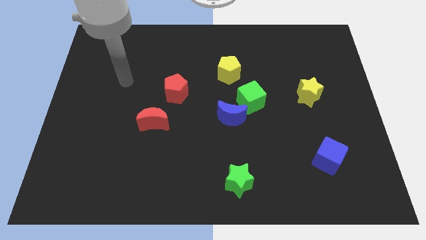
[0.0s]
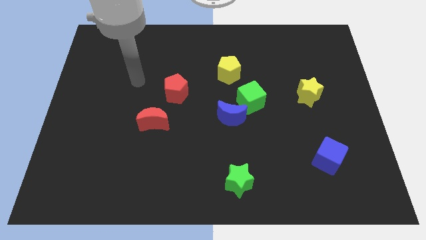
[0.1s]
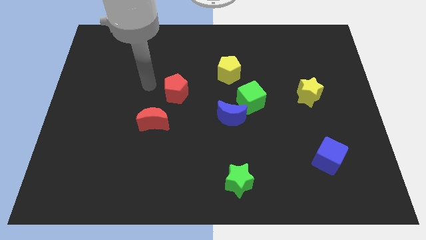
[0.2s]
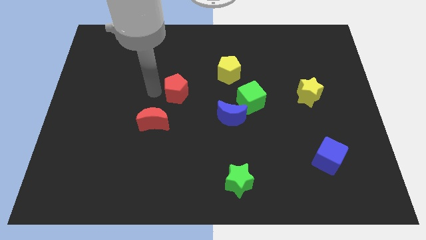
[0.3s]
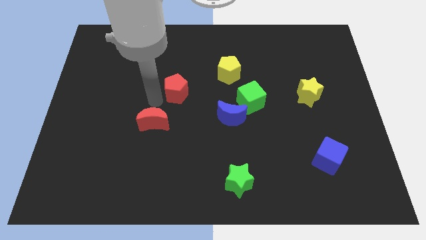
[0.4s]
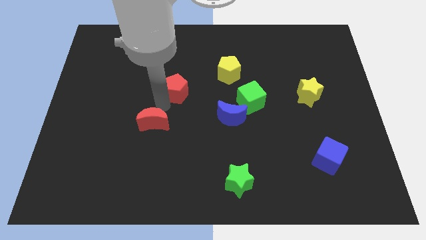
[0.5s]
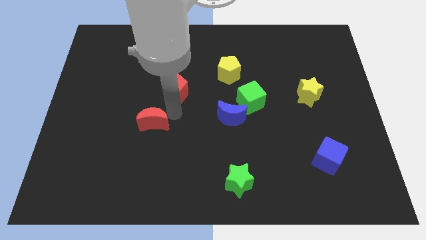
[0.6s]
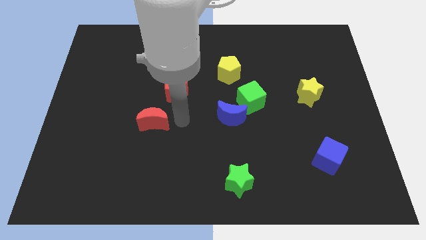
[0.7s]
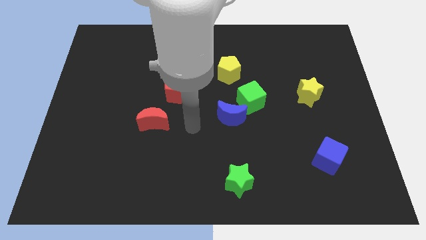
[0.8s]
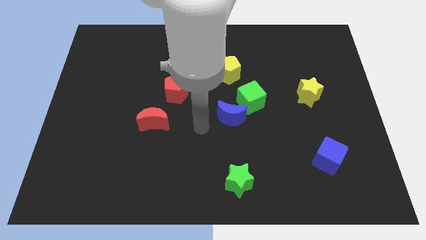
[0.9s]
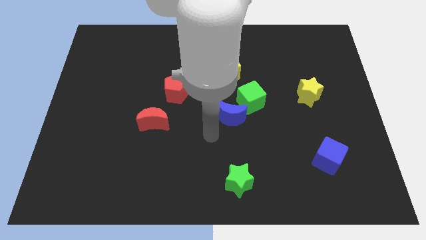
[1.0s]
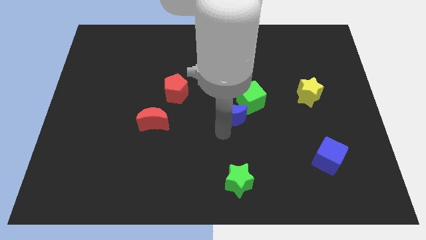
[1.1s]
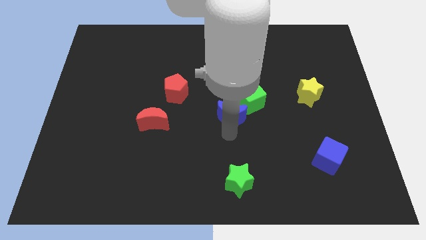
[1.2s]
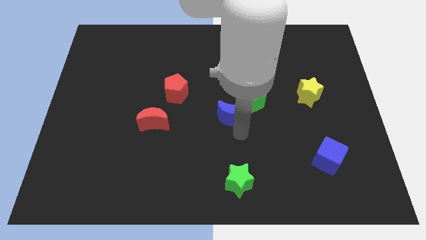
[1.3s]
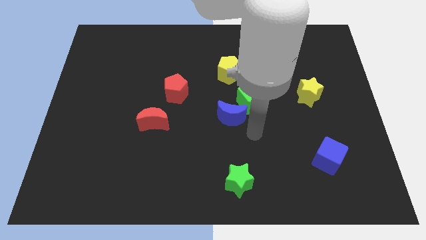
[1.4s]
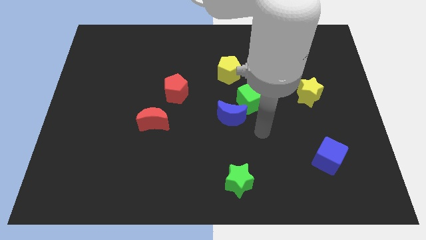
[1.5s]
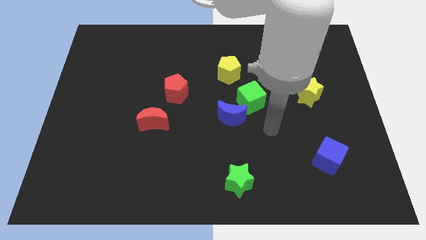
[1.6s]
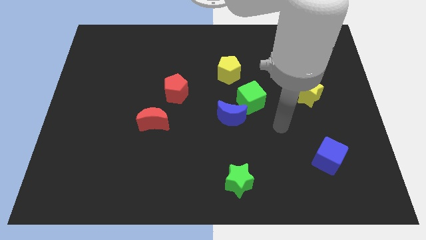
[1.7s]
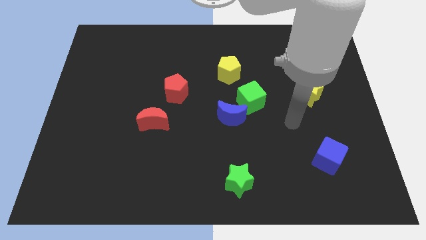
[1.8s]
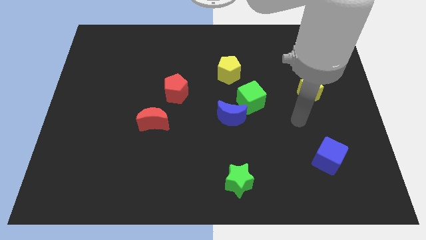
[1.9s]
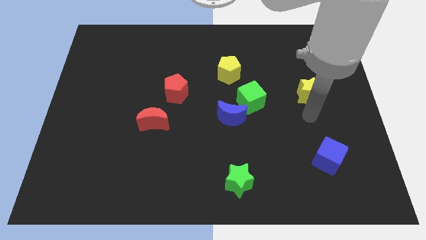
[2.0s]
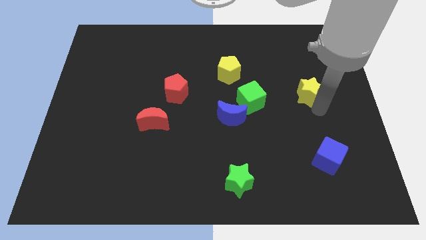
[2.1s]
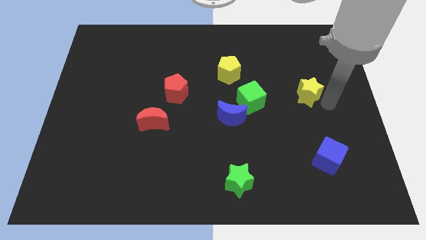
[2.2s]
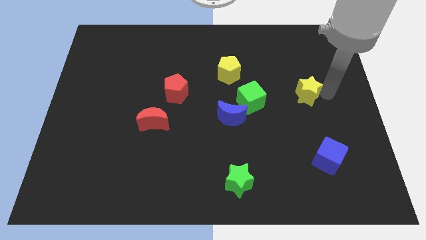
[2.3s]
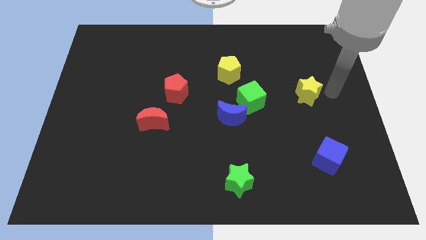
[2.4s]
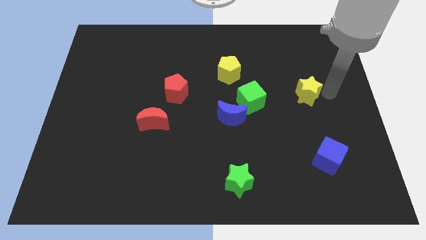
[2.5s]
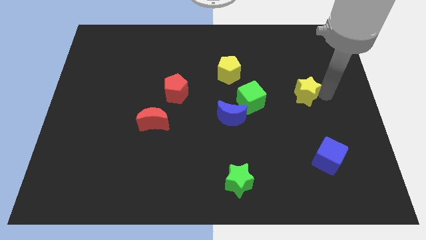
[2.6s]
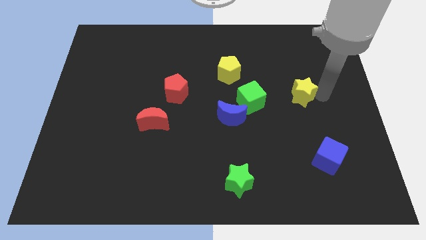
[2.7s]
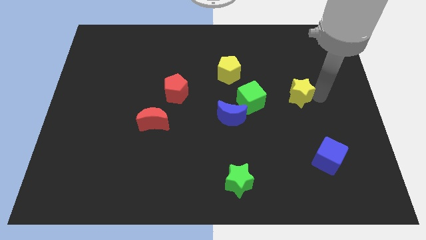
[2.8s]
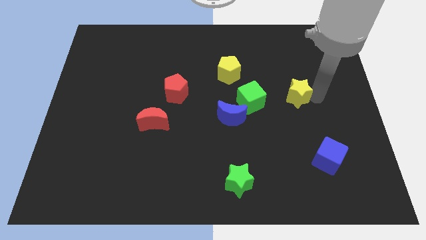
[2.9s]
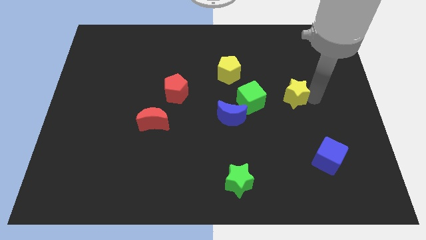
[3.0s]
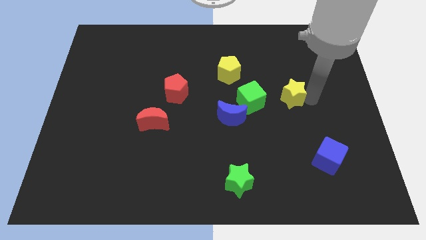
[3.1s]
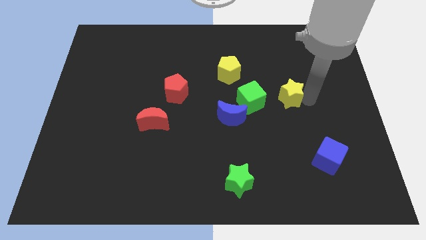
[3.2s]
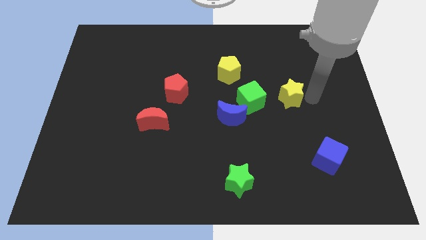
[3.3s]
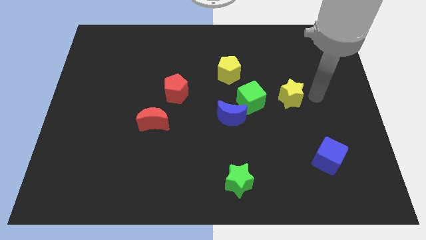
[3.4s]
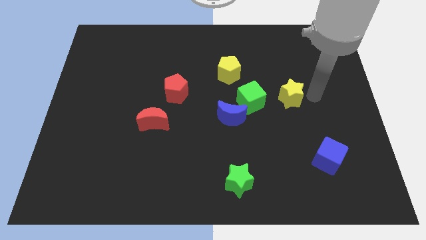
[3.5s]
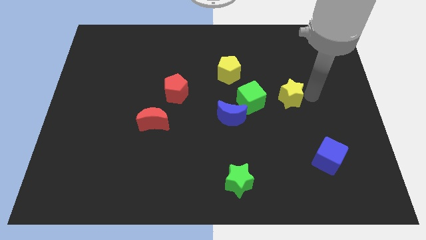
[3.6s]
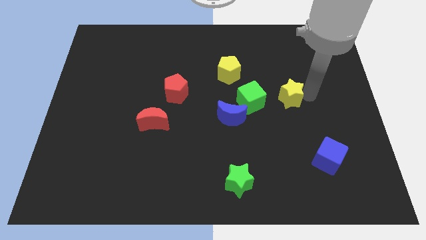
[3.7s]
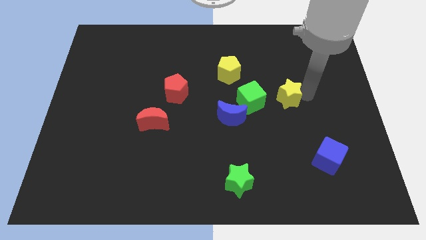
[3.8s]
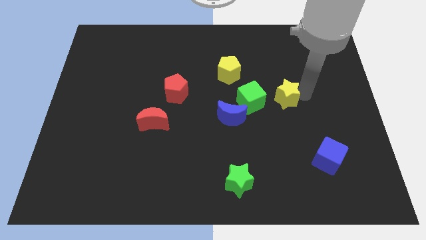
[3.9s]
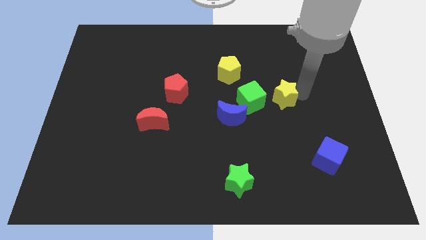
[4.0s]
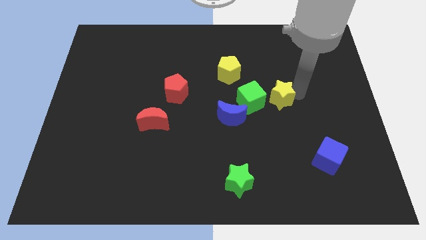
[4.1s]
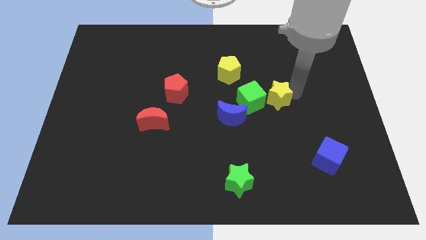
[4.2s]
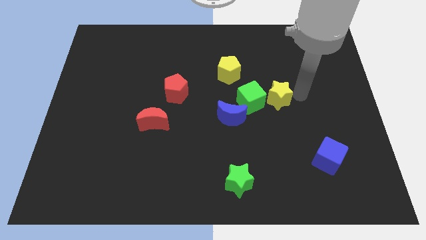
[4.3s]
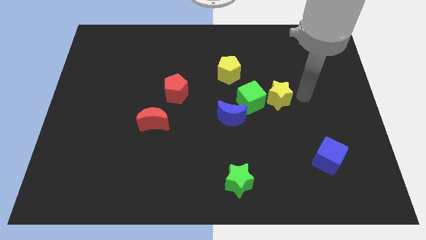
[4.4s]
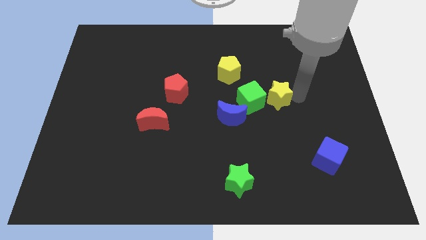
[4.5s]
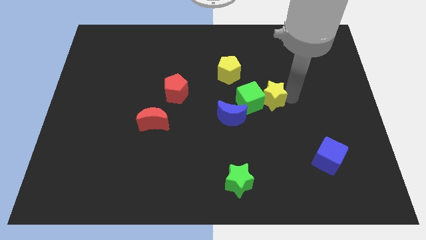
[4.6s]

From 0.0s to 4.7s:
move the yellow star next to the green cube

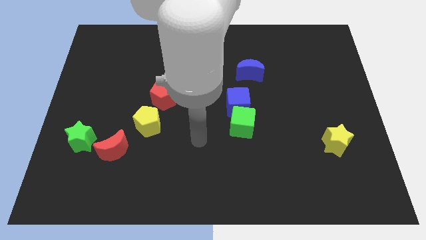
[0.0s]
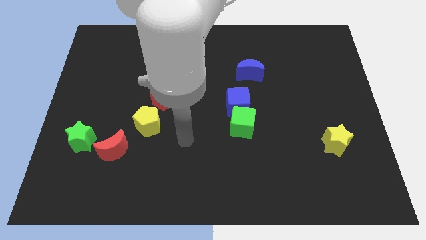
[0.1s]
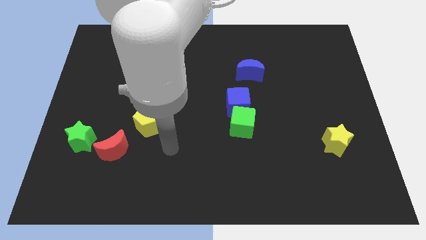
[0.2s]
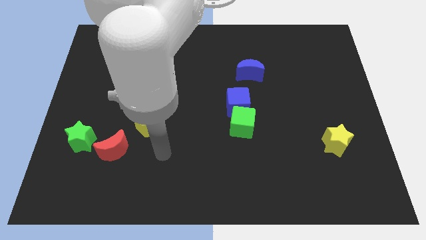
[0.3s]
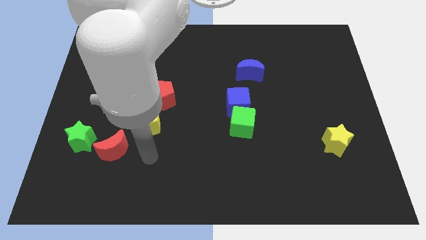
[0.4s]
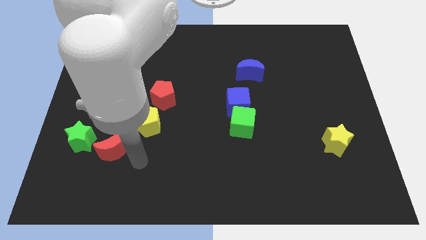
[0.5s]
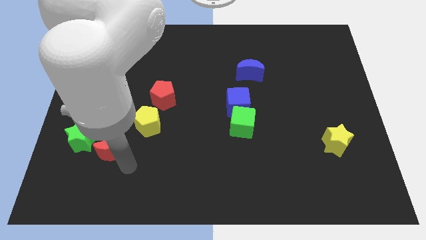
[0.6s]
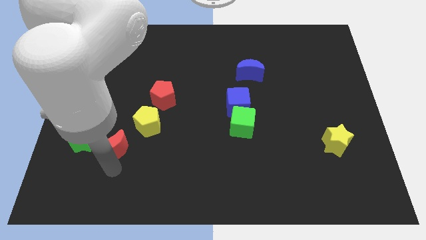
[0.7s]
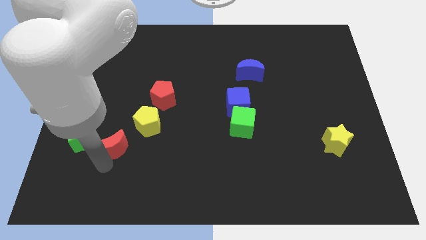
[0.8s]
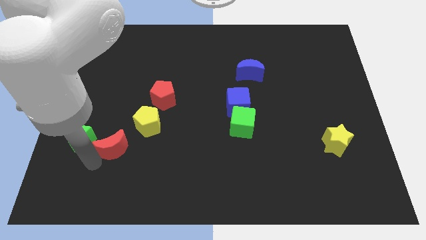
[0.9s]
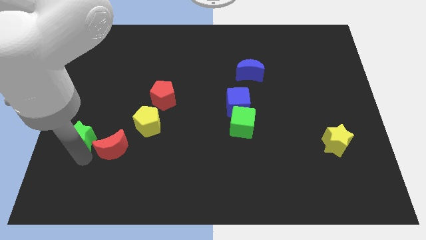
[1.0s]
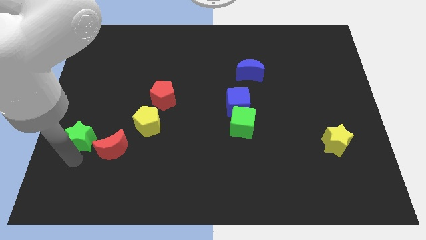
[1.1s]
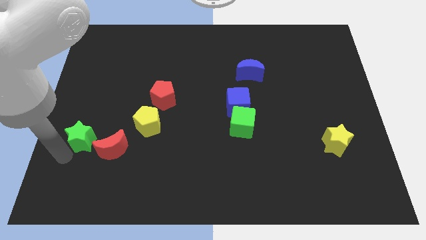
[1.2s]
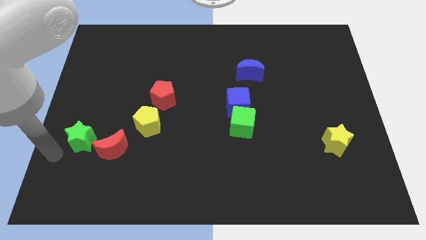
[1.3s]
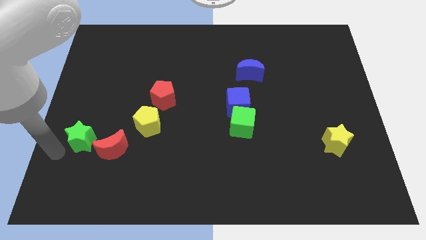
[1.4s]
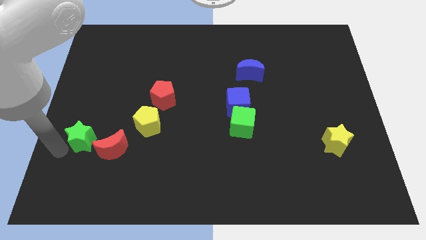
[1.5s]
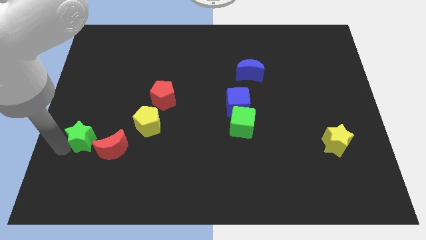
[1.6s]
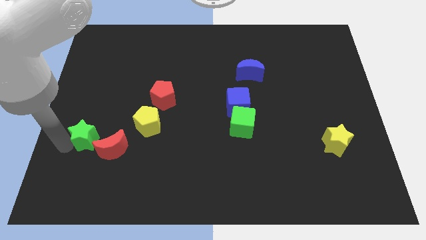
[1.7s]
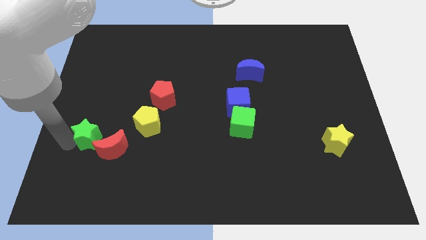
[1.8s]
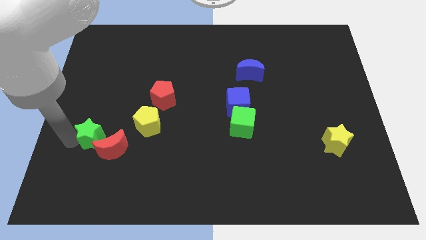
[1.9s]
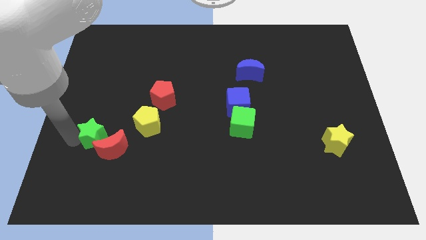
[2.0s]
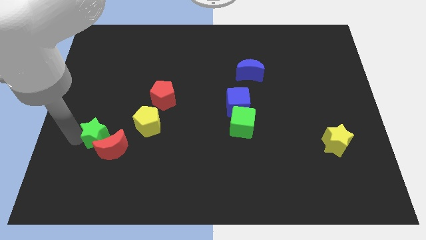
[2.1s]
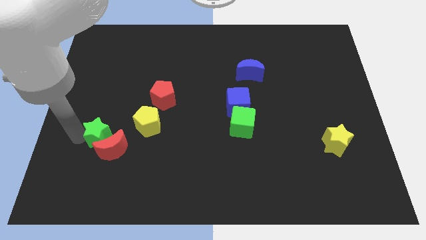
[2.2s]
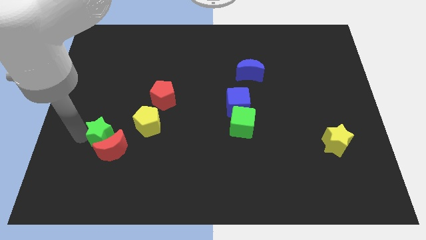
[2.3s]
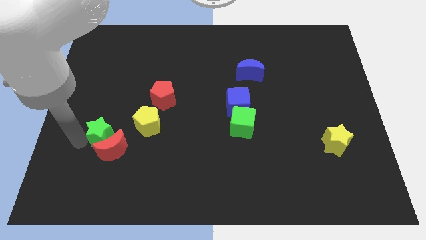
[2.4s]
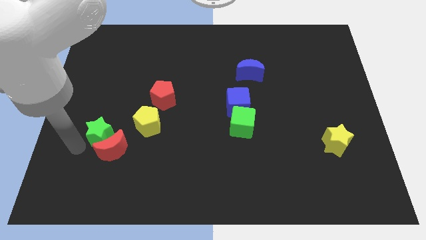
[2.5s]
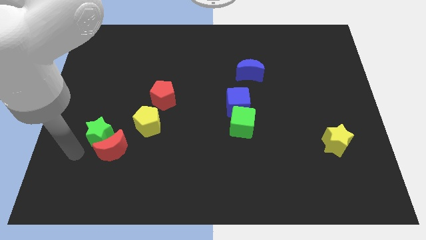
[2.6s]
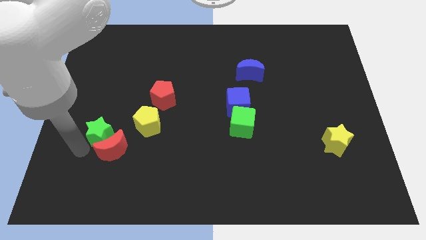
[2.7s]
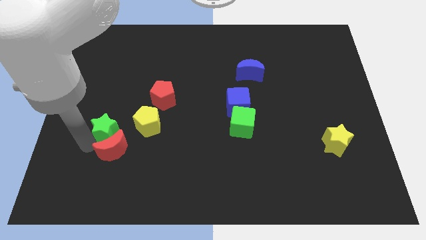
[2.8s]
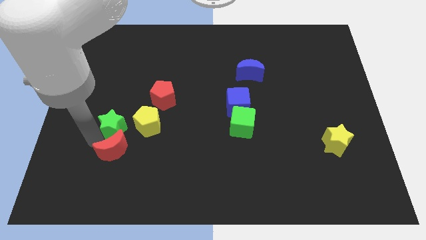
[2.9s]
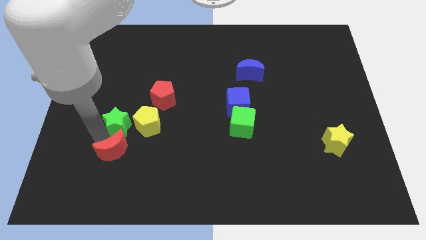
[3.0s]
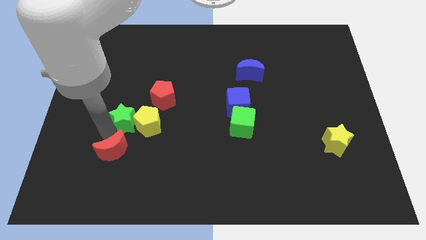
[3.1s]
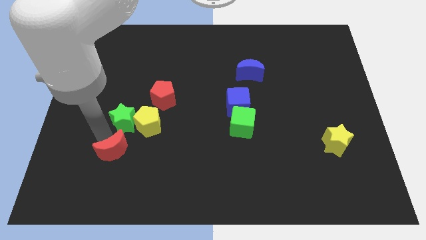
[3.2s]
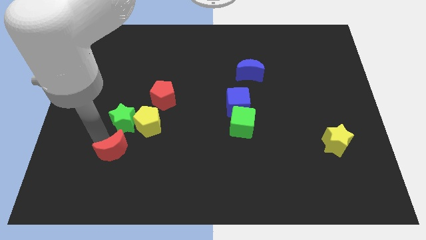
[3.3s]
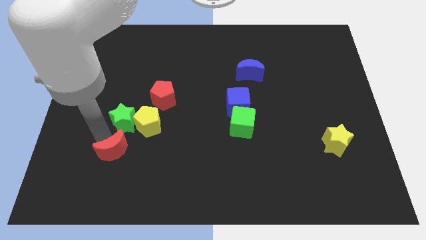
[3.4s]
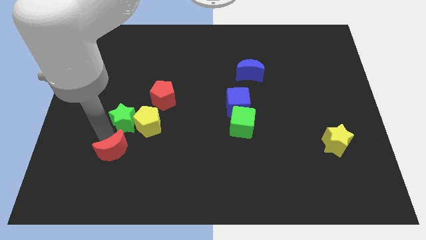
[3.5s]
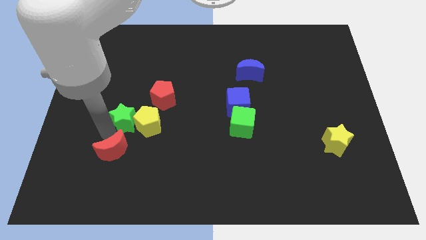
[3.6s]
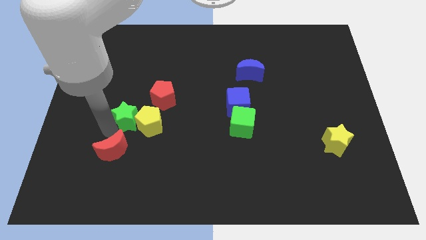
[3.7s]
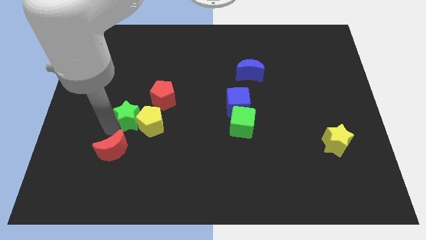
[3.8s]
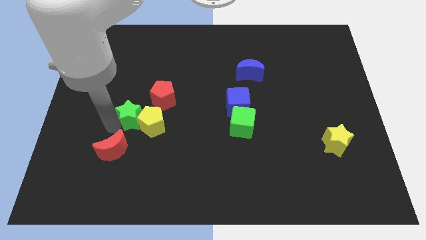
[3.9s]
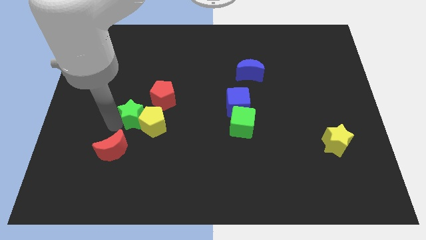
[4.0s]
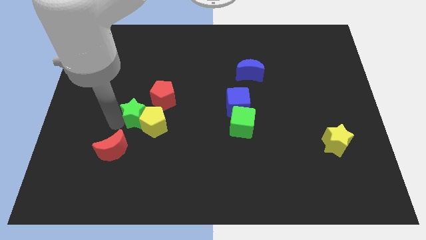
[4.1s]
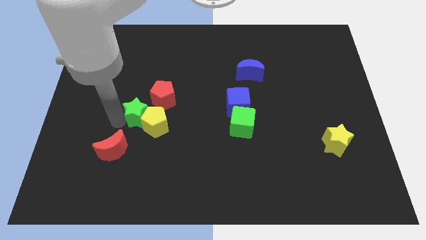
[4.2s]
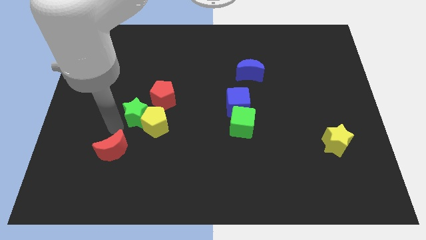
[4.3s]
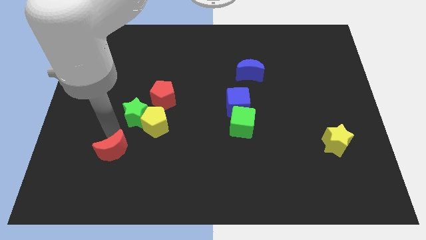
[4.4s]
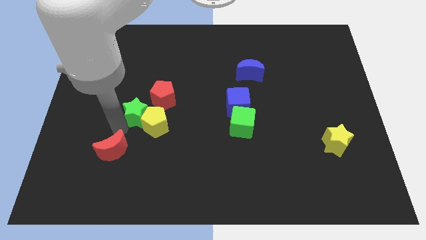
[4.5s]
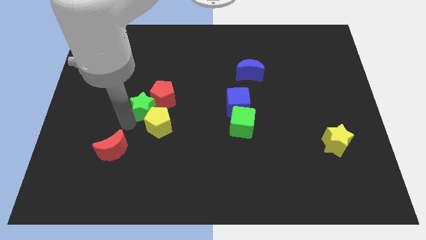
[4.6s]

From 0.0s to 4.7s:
slide the green star towards the red pentagon
